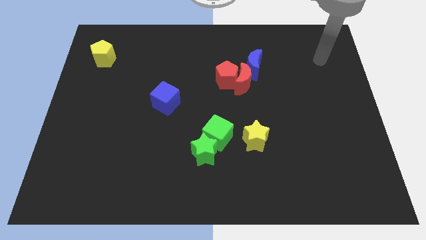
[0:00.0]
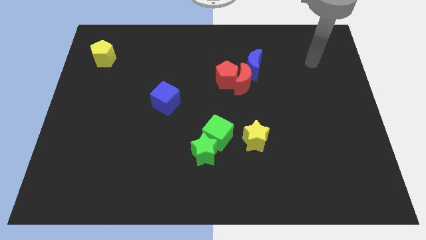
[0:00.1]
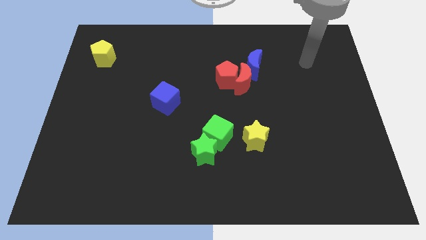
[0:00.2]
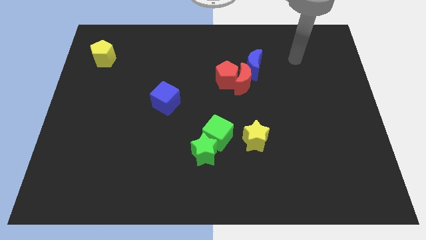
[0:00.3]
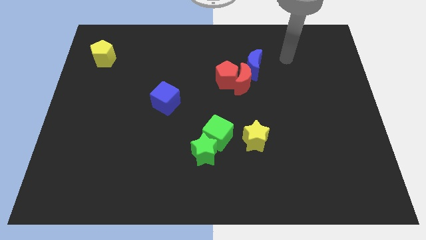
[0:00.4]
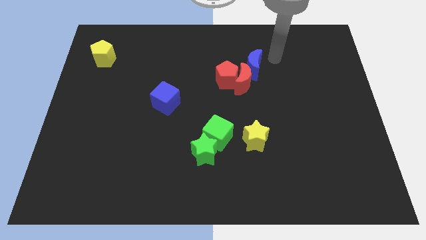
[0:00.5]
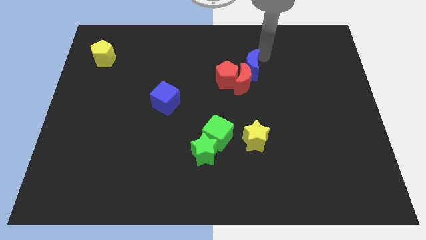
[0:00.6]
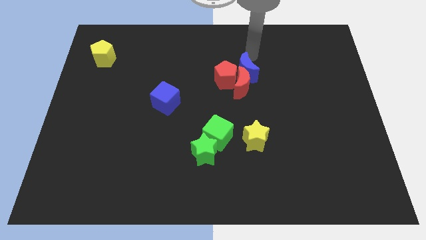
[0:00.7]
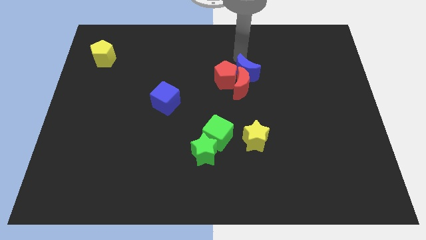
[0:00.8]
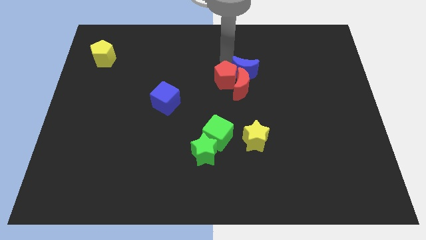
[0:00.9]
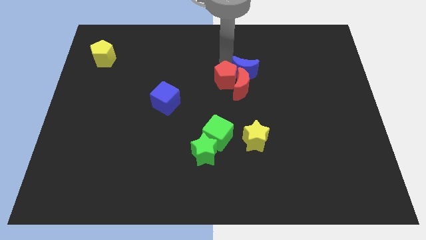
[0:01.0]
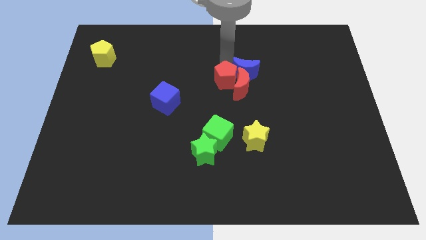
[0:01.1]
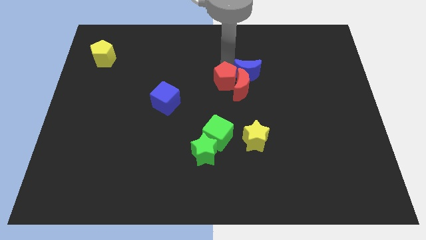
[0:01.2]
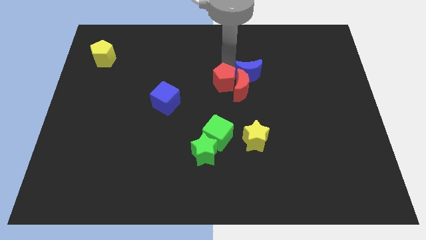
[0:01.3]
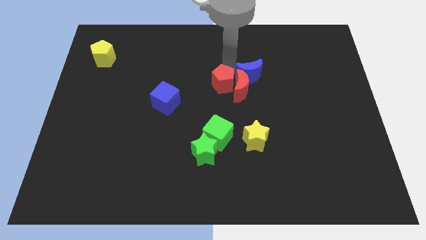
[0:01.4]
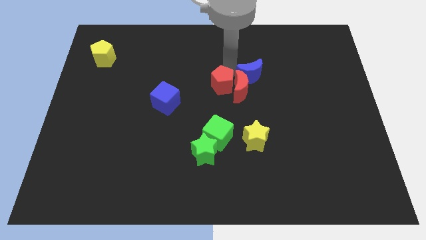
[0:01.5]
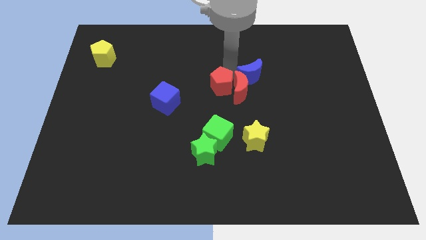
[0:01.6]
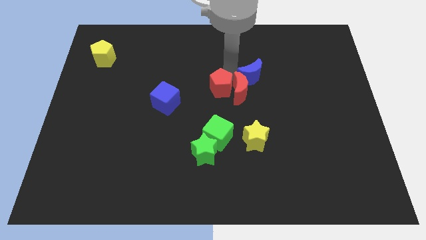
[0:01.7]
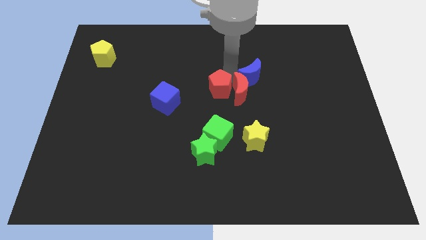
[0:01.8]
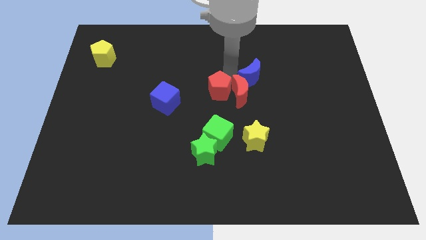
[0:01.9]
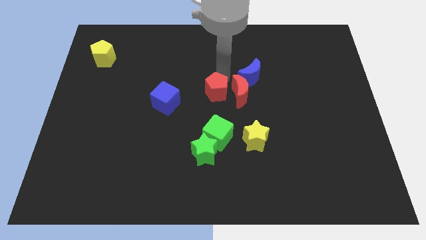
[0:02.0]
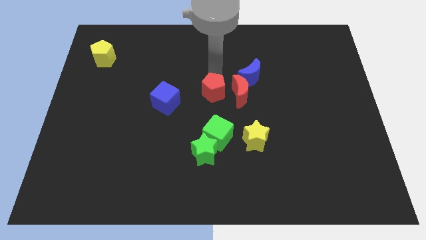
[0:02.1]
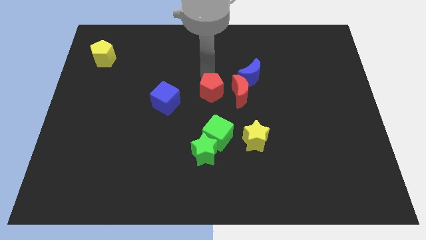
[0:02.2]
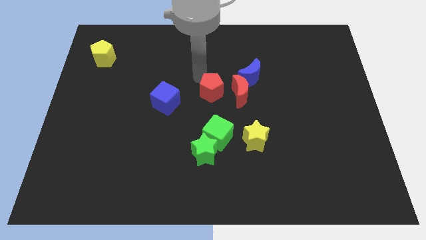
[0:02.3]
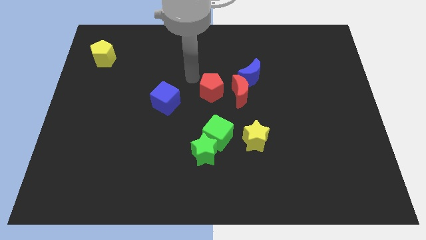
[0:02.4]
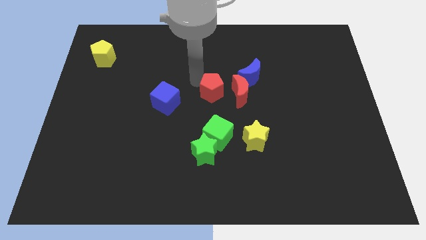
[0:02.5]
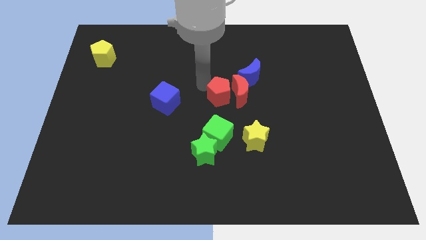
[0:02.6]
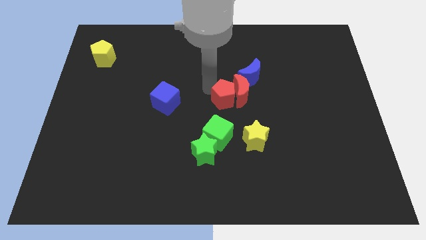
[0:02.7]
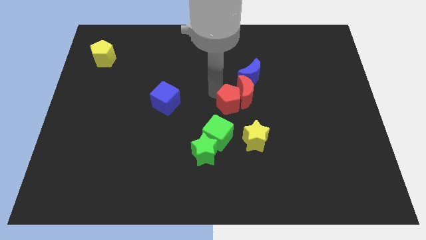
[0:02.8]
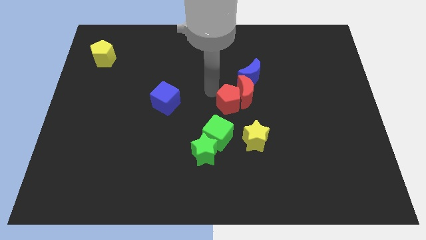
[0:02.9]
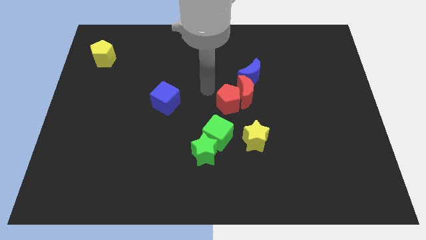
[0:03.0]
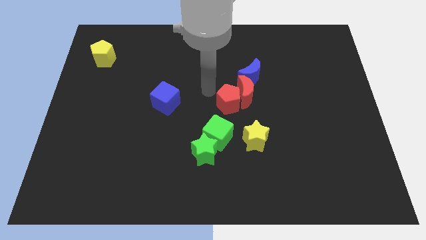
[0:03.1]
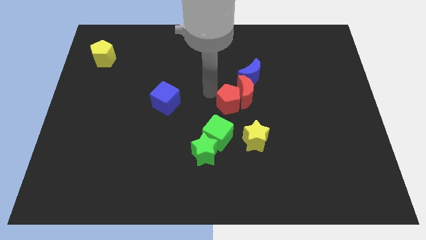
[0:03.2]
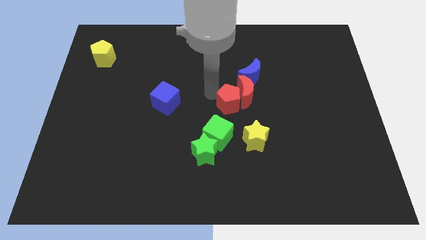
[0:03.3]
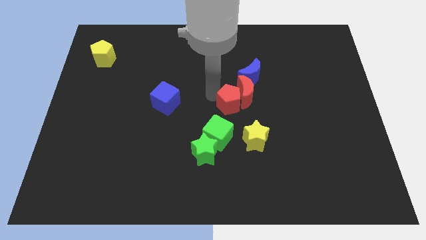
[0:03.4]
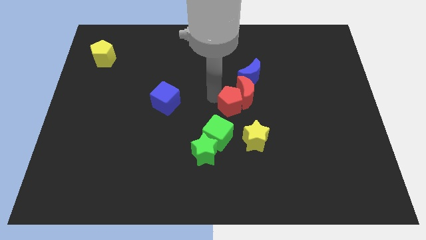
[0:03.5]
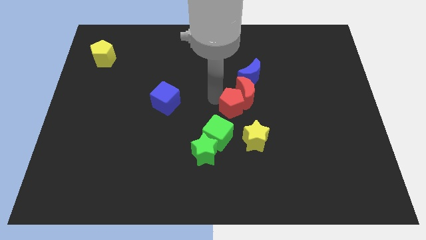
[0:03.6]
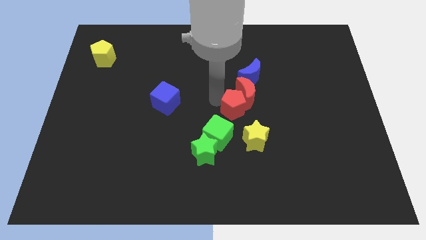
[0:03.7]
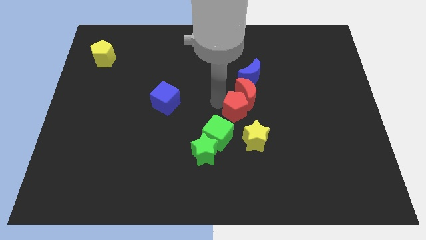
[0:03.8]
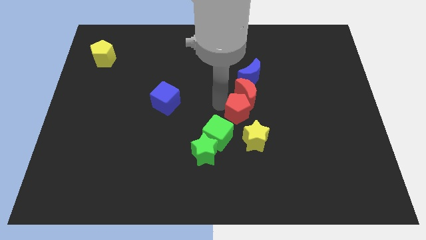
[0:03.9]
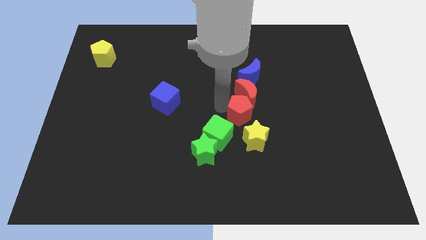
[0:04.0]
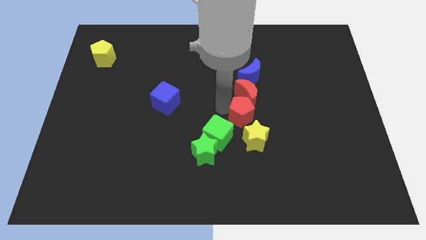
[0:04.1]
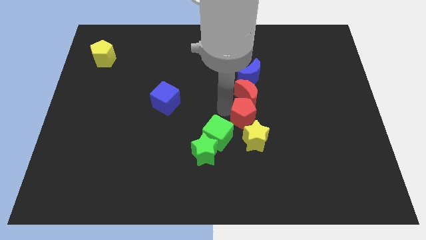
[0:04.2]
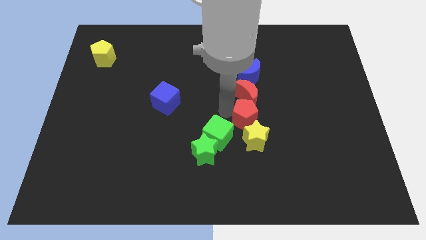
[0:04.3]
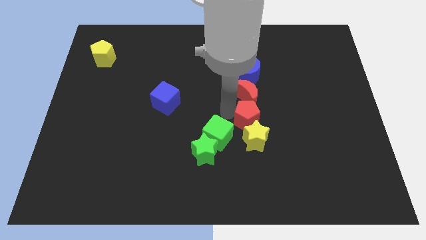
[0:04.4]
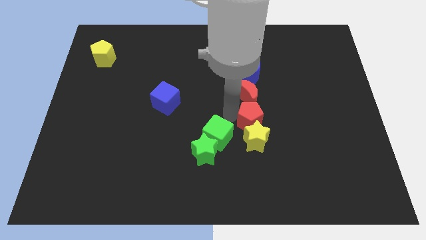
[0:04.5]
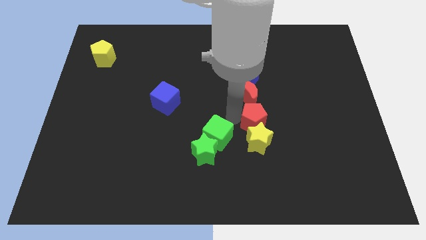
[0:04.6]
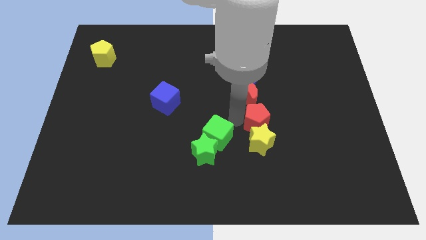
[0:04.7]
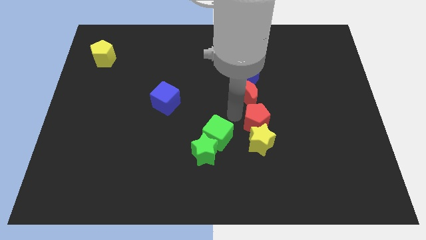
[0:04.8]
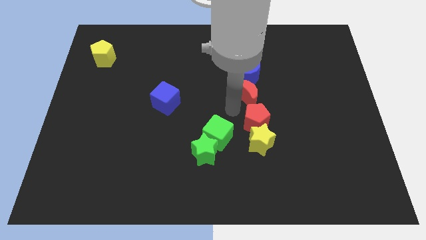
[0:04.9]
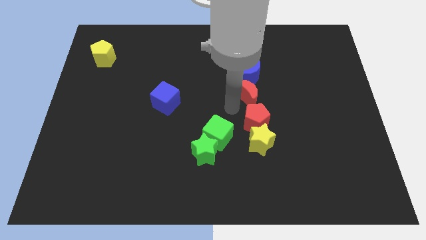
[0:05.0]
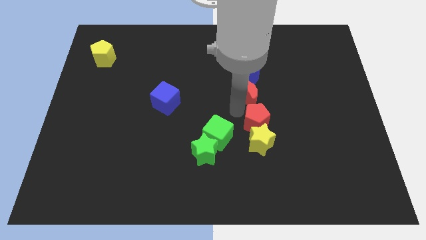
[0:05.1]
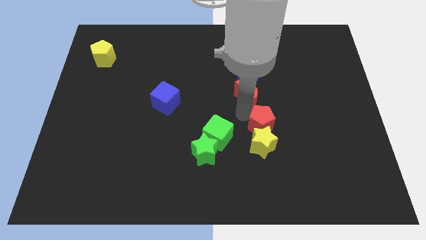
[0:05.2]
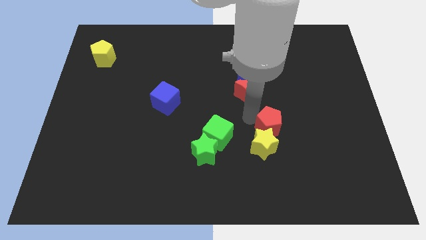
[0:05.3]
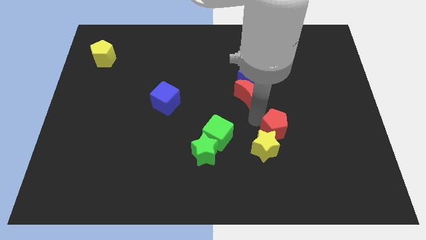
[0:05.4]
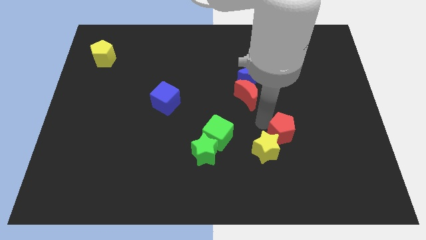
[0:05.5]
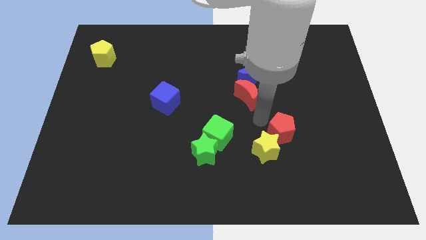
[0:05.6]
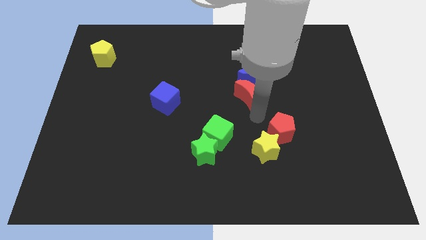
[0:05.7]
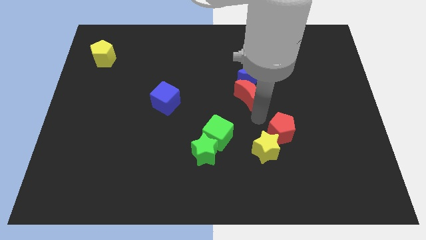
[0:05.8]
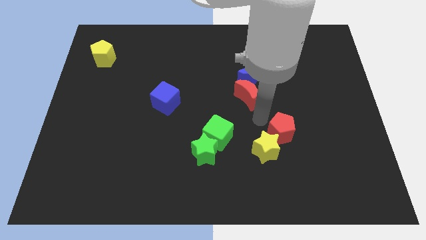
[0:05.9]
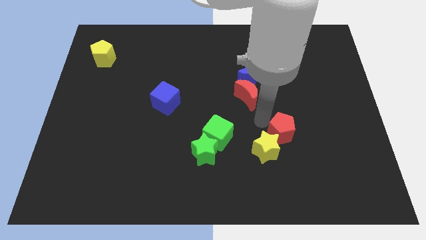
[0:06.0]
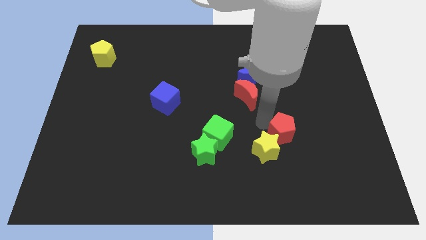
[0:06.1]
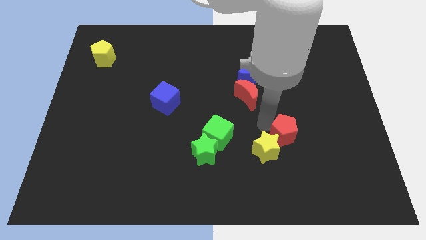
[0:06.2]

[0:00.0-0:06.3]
push the red pentagon downwards and then right

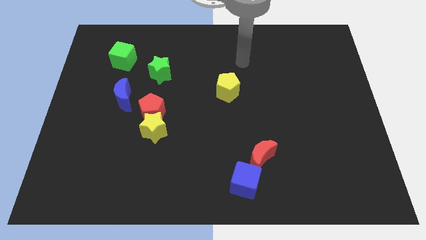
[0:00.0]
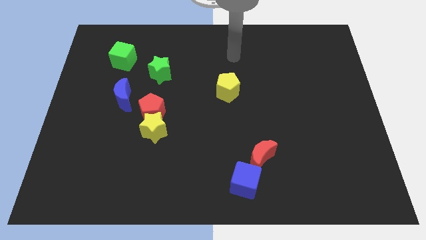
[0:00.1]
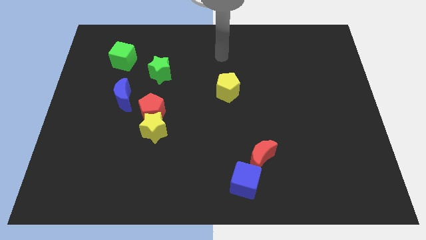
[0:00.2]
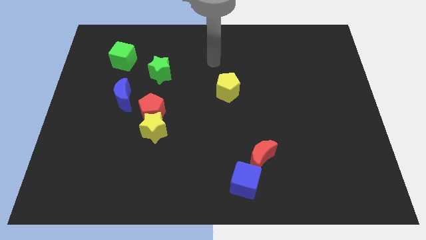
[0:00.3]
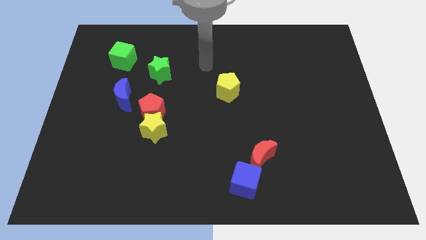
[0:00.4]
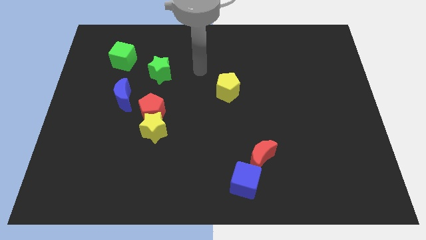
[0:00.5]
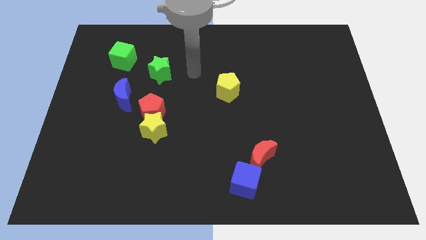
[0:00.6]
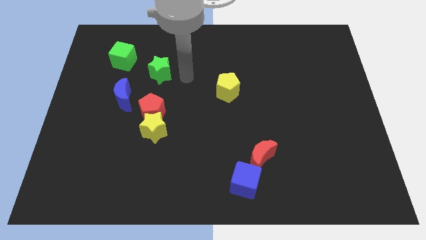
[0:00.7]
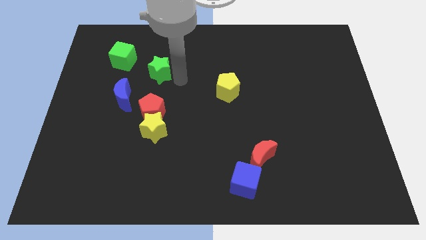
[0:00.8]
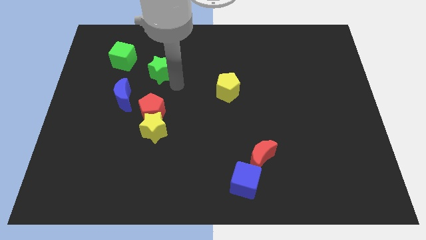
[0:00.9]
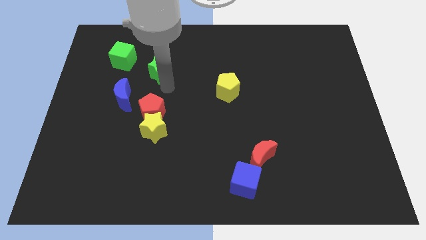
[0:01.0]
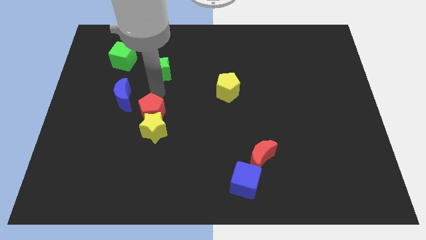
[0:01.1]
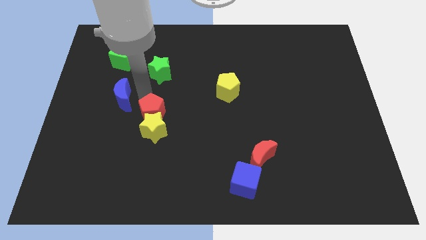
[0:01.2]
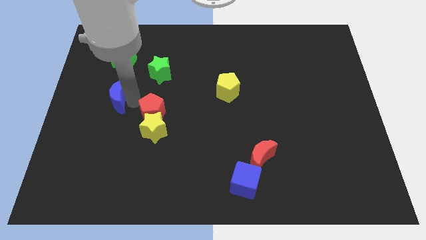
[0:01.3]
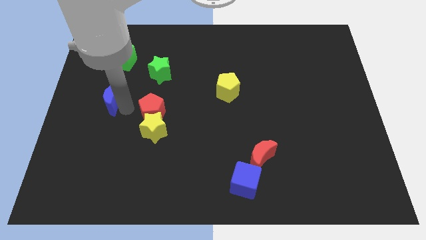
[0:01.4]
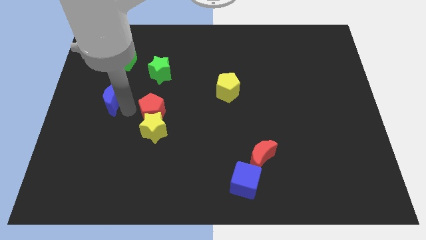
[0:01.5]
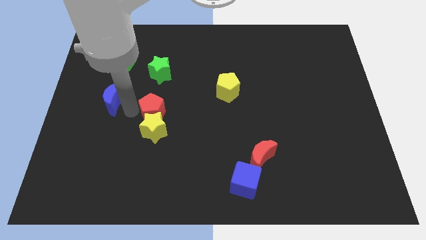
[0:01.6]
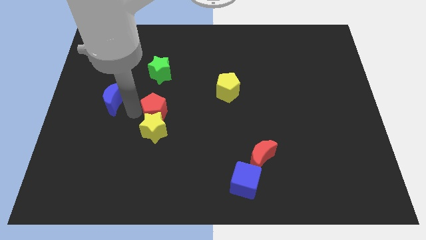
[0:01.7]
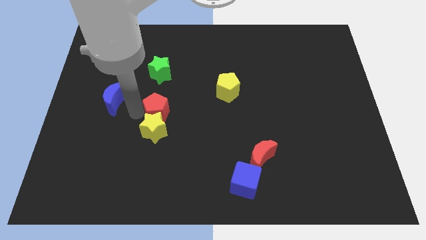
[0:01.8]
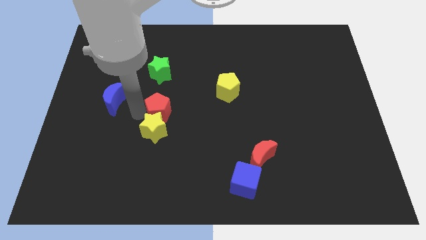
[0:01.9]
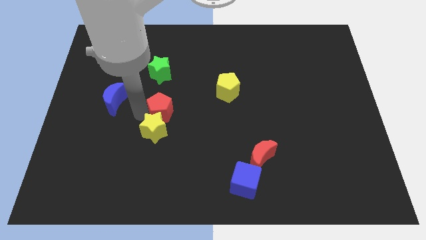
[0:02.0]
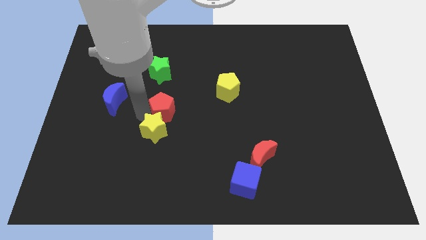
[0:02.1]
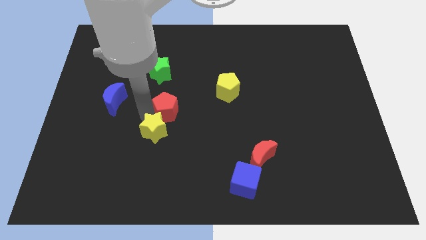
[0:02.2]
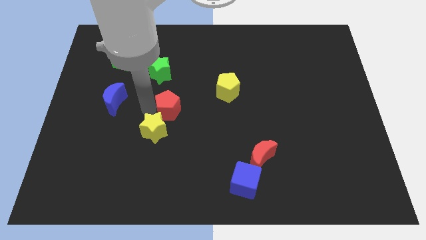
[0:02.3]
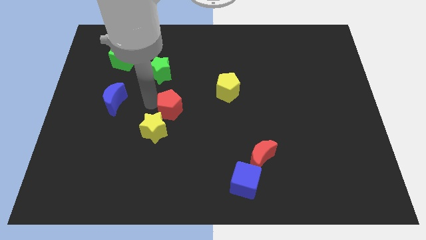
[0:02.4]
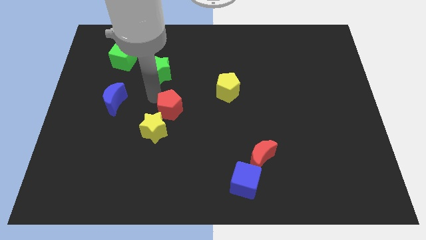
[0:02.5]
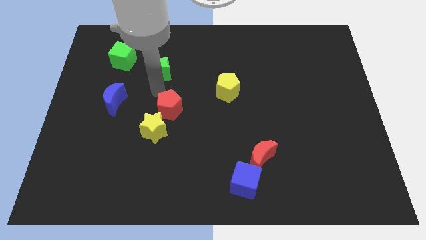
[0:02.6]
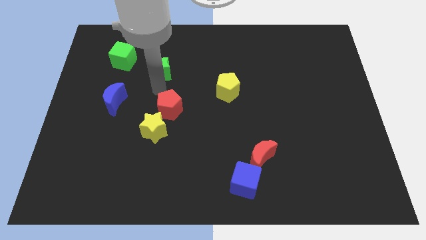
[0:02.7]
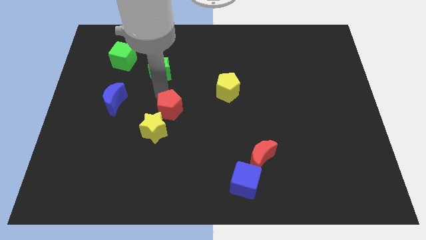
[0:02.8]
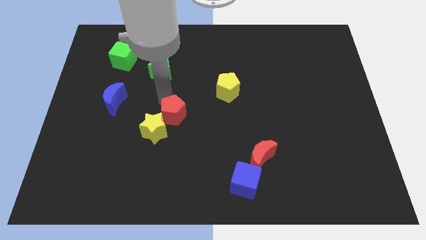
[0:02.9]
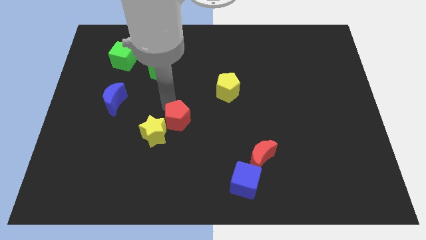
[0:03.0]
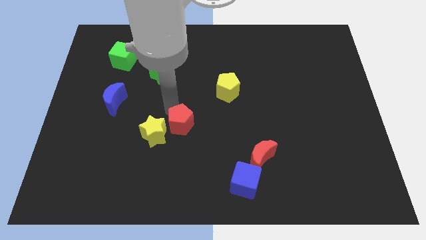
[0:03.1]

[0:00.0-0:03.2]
slightly move the red pentagon down and to the right diagonally
